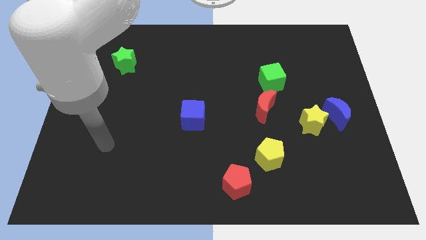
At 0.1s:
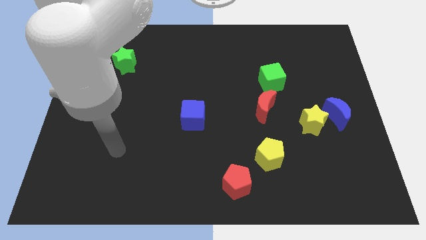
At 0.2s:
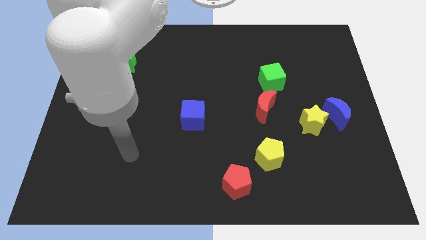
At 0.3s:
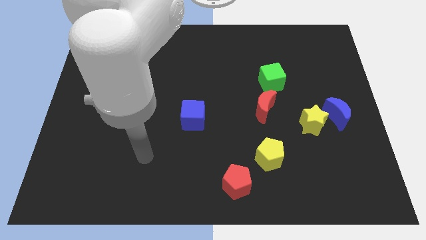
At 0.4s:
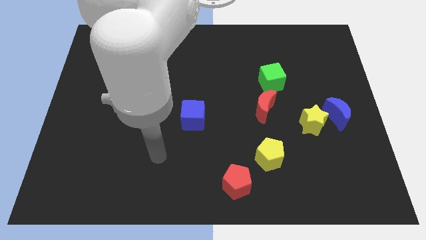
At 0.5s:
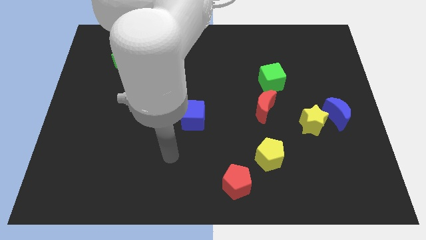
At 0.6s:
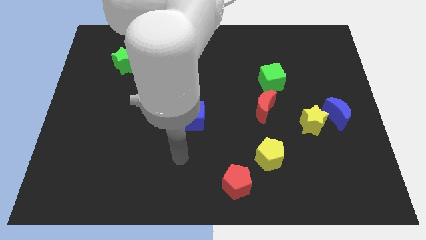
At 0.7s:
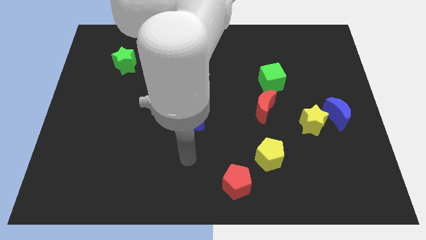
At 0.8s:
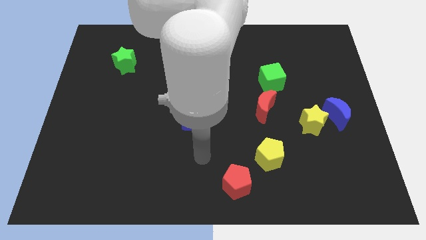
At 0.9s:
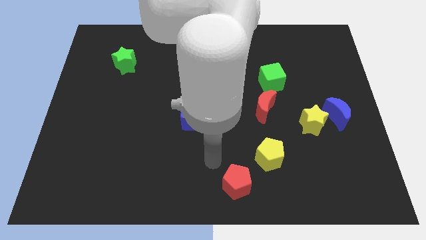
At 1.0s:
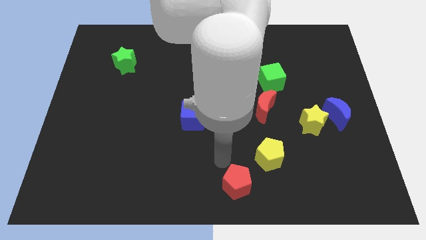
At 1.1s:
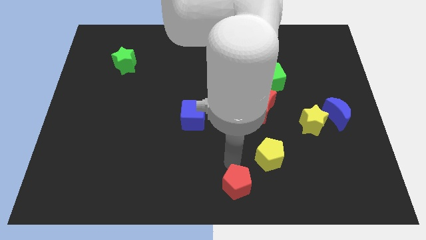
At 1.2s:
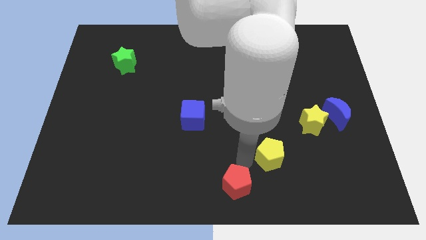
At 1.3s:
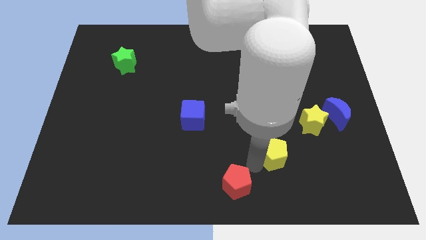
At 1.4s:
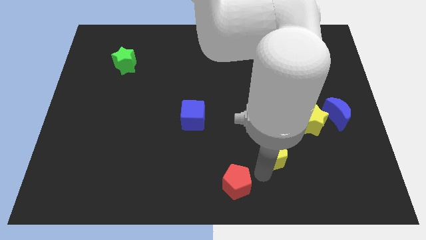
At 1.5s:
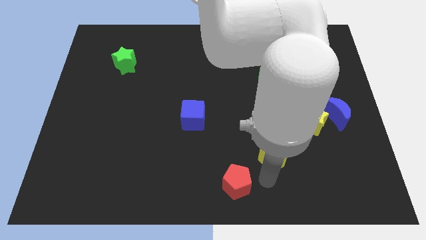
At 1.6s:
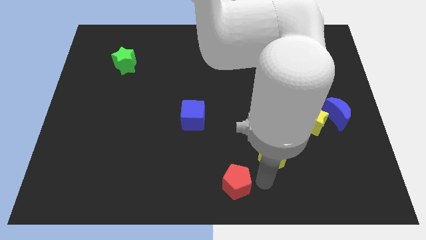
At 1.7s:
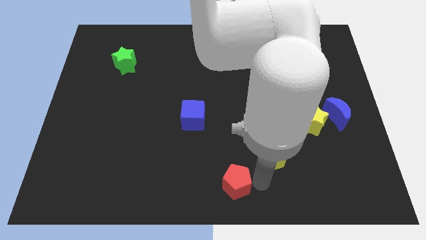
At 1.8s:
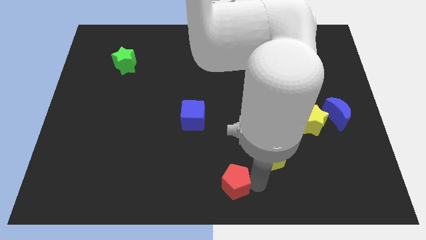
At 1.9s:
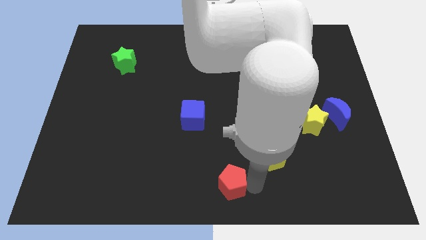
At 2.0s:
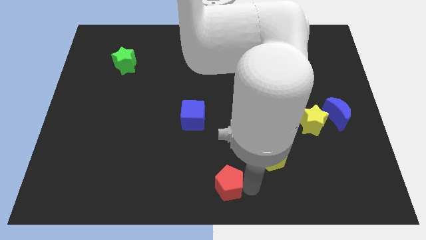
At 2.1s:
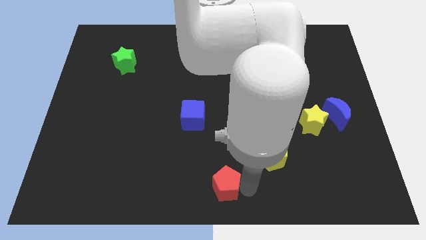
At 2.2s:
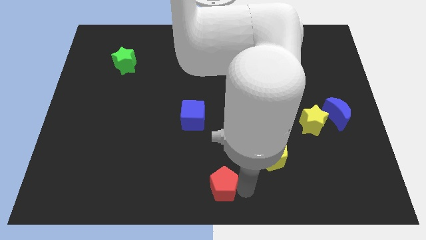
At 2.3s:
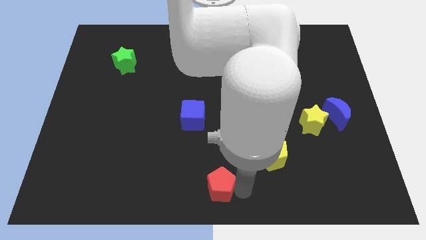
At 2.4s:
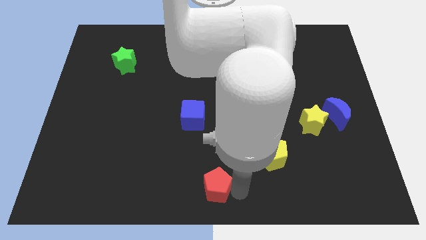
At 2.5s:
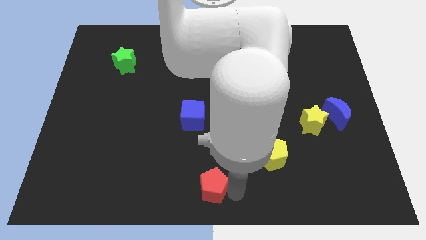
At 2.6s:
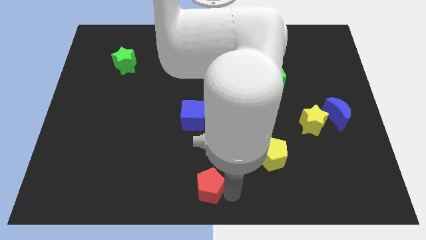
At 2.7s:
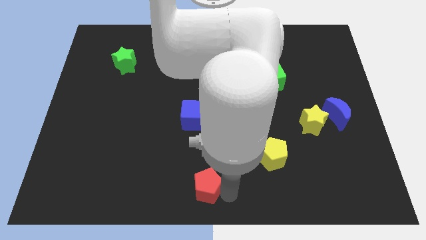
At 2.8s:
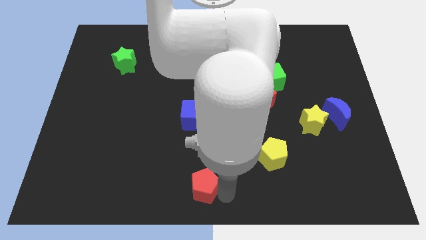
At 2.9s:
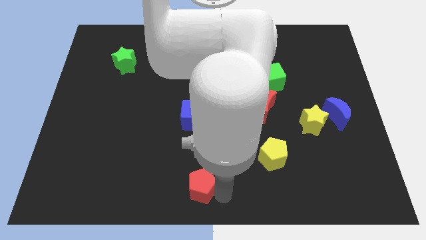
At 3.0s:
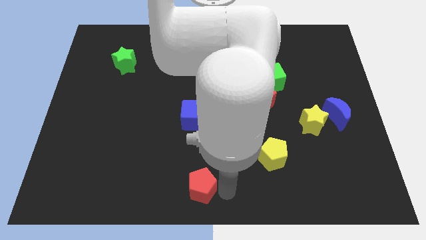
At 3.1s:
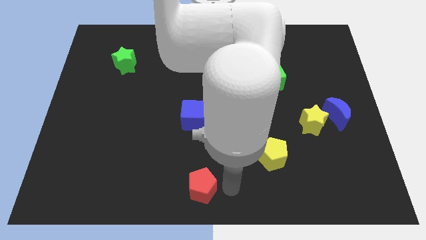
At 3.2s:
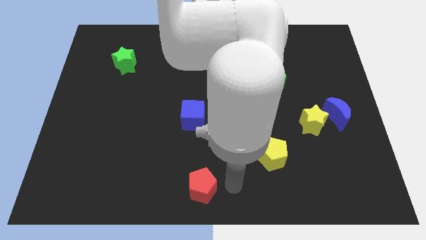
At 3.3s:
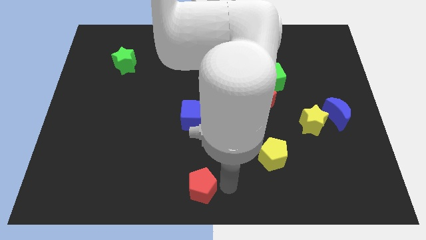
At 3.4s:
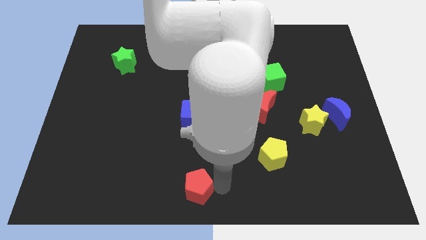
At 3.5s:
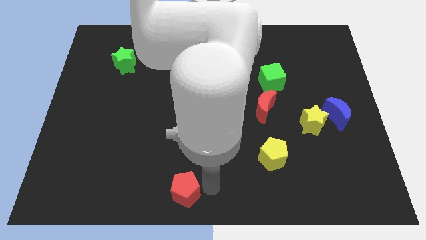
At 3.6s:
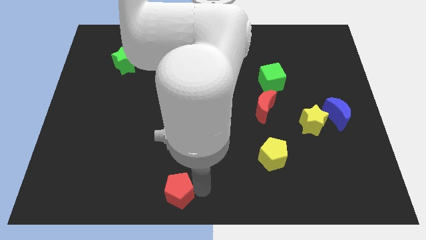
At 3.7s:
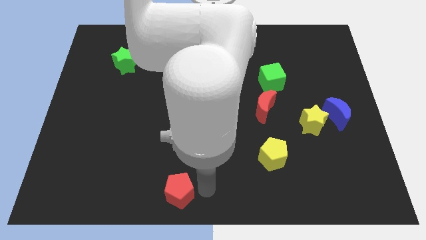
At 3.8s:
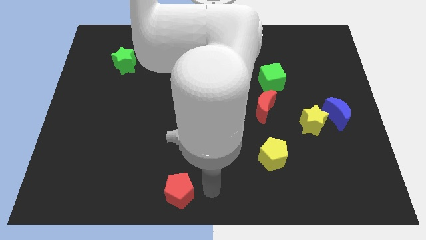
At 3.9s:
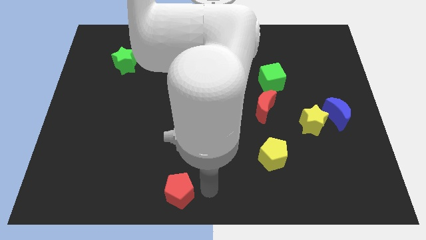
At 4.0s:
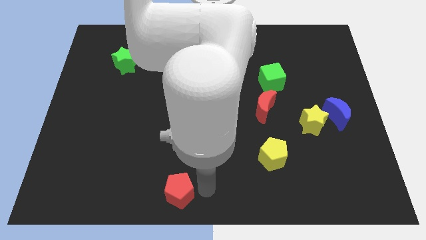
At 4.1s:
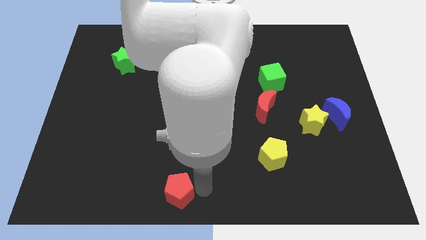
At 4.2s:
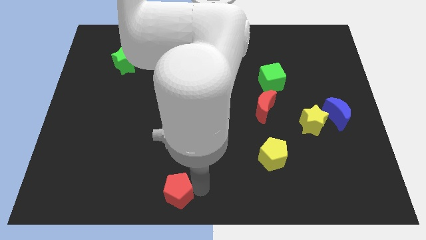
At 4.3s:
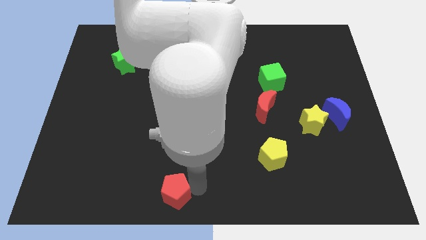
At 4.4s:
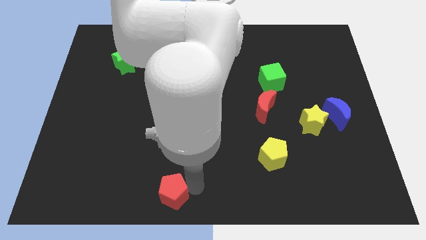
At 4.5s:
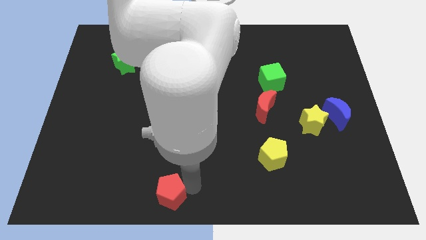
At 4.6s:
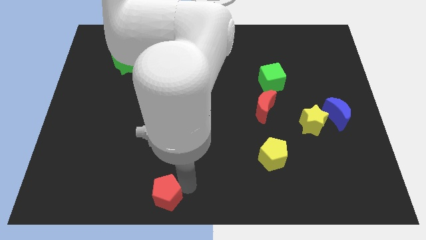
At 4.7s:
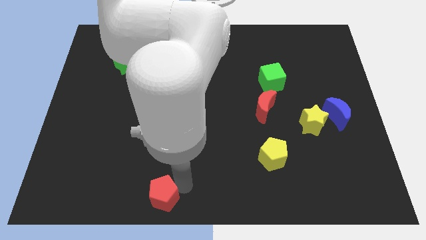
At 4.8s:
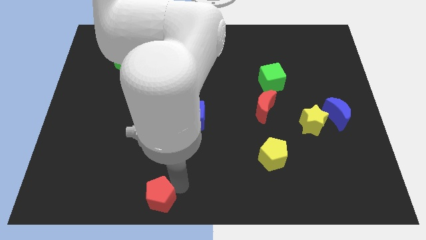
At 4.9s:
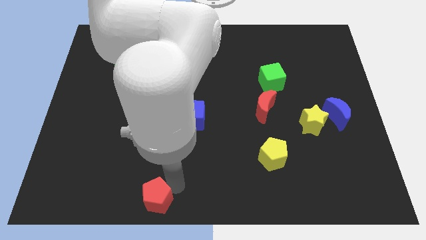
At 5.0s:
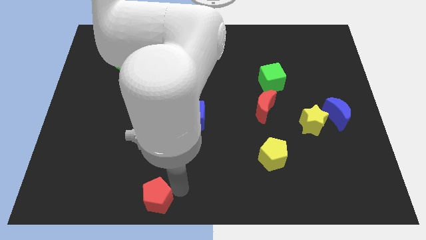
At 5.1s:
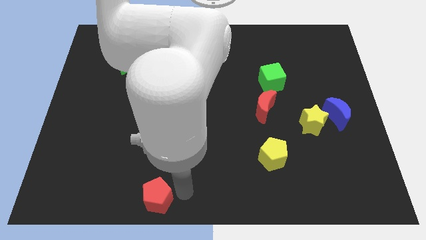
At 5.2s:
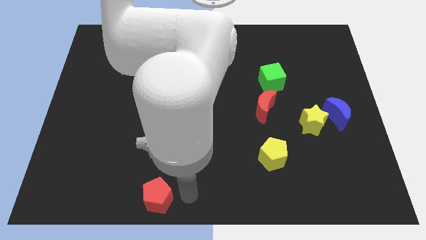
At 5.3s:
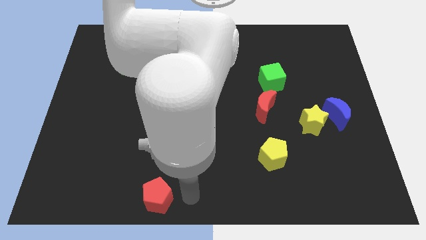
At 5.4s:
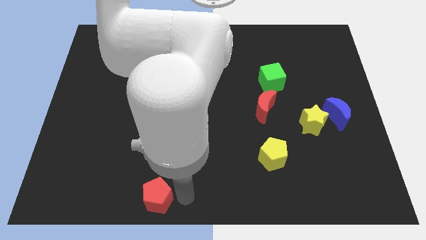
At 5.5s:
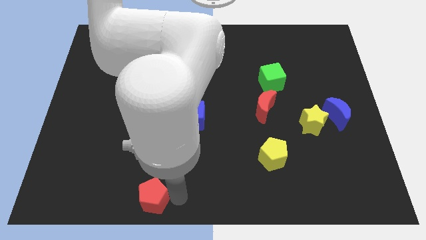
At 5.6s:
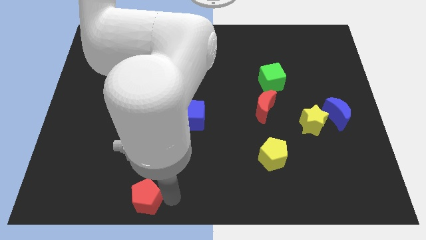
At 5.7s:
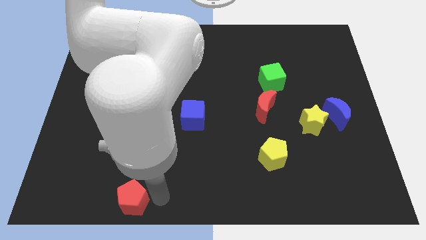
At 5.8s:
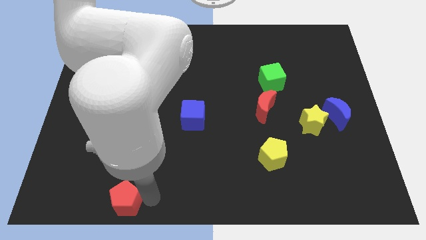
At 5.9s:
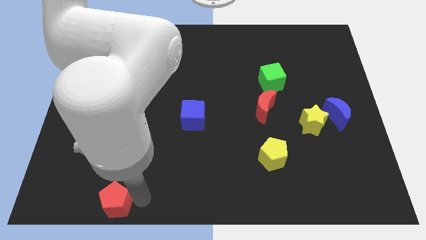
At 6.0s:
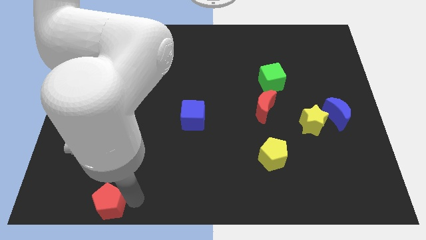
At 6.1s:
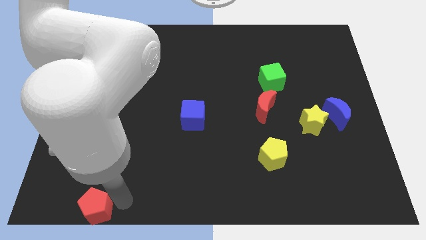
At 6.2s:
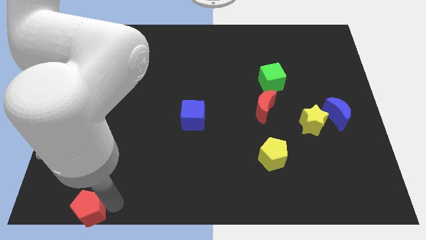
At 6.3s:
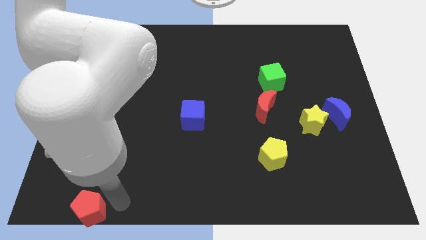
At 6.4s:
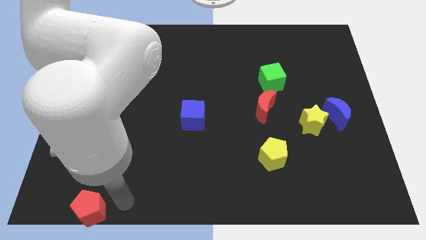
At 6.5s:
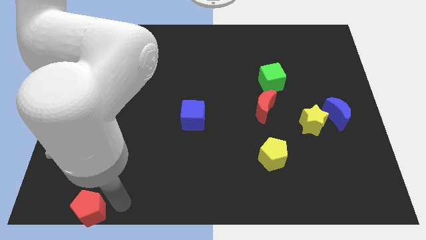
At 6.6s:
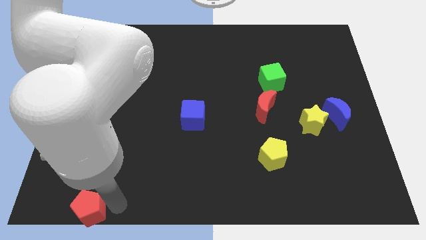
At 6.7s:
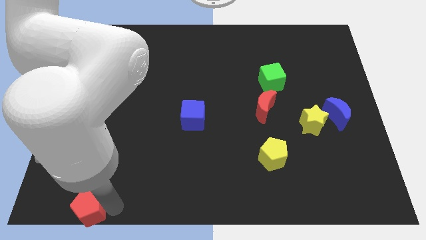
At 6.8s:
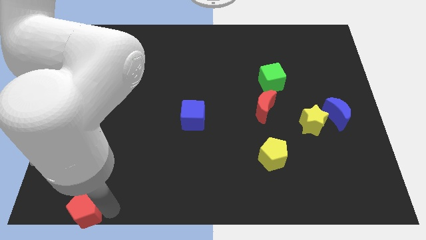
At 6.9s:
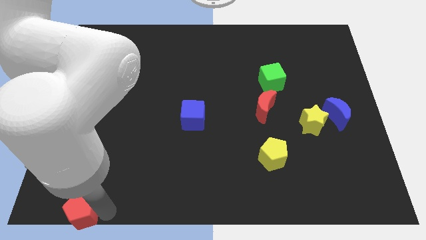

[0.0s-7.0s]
push the red pentagon to the lower left corner
